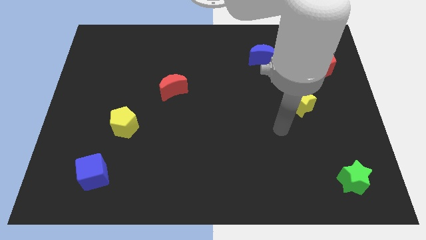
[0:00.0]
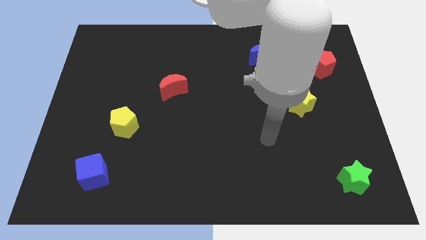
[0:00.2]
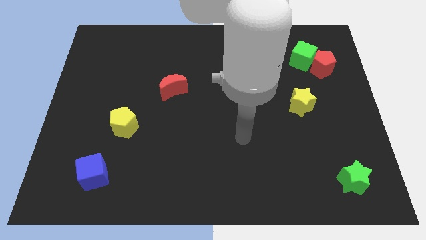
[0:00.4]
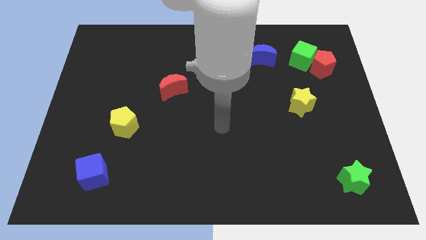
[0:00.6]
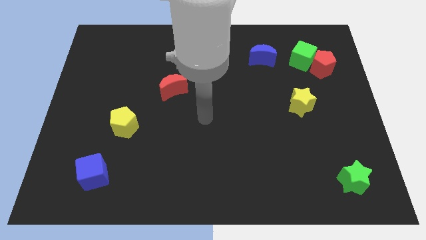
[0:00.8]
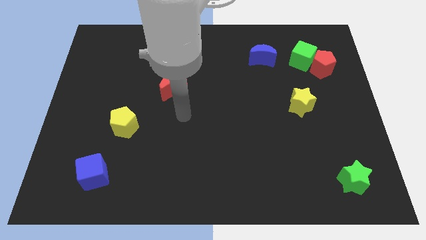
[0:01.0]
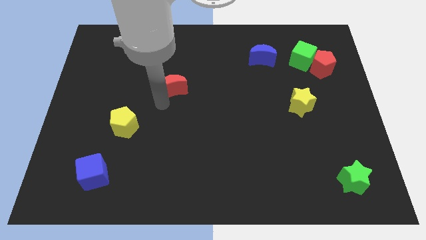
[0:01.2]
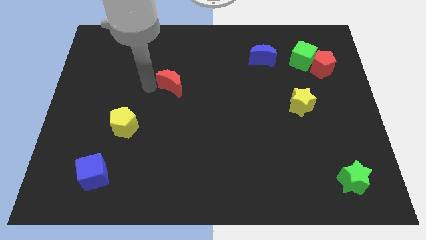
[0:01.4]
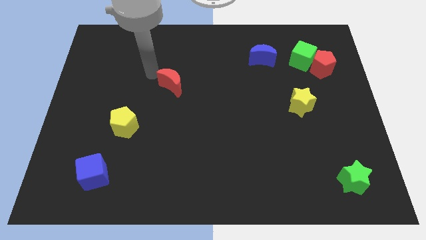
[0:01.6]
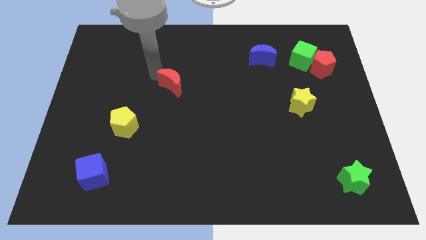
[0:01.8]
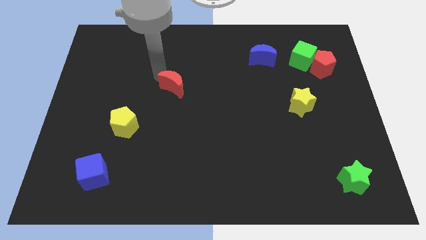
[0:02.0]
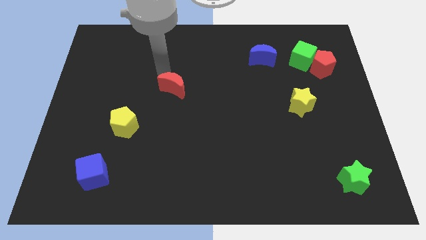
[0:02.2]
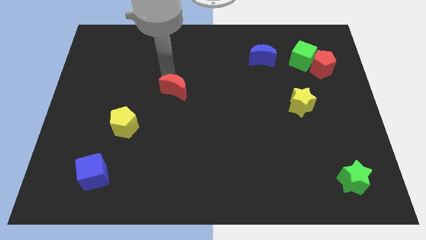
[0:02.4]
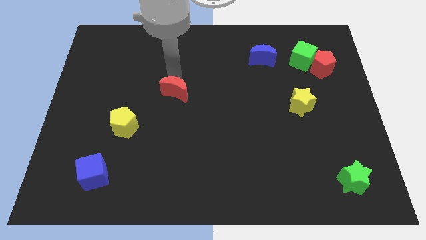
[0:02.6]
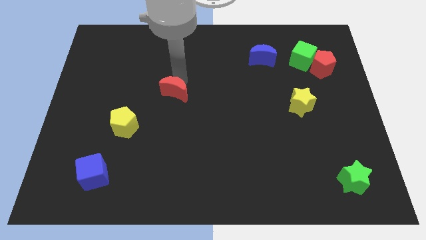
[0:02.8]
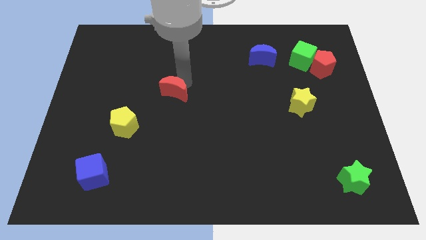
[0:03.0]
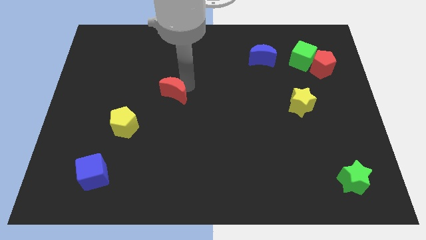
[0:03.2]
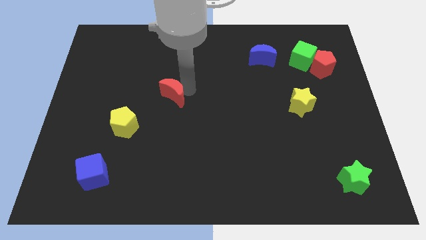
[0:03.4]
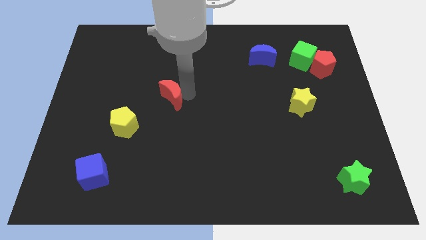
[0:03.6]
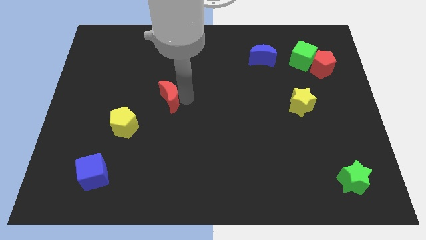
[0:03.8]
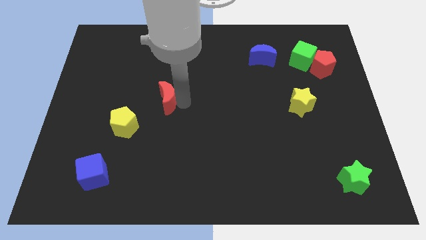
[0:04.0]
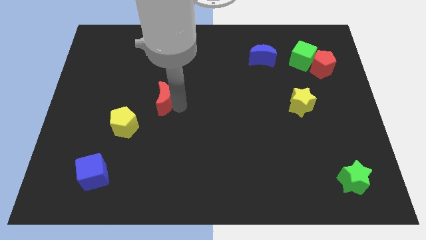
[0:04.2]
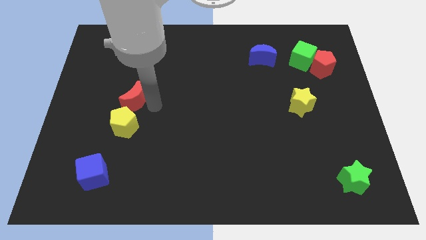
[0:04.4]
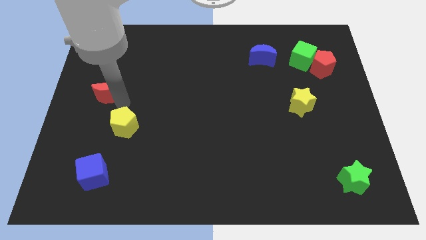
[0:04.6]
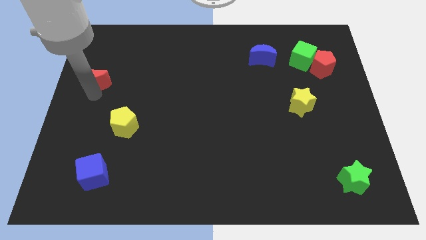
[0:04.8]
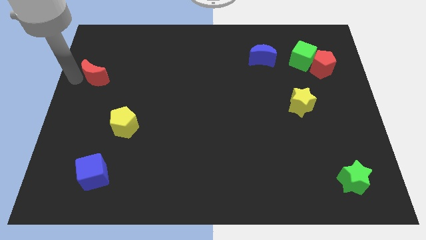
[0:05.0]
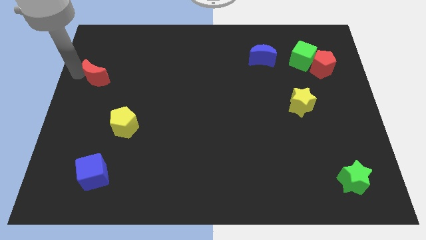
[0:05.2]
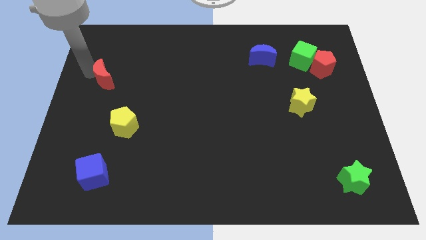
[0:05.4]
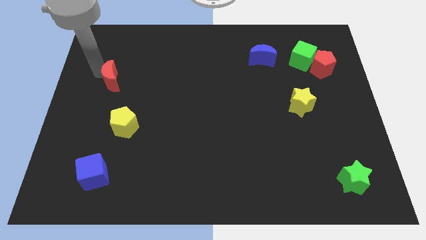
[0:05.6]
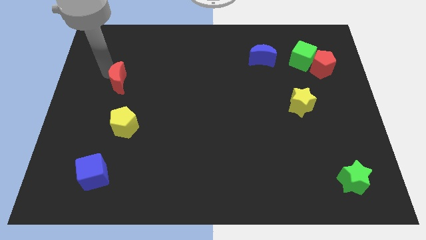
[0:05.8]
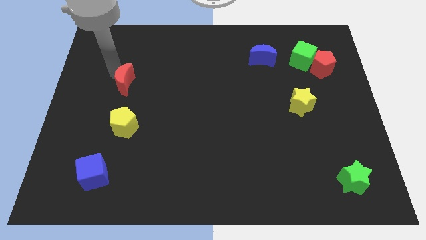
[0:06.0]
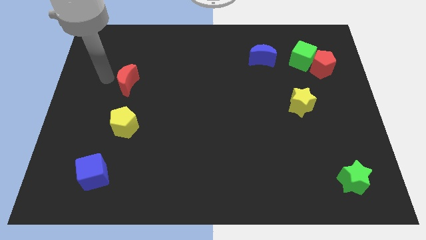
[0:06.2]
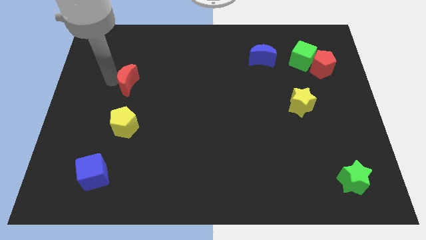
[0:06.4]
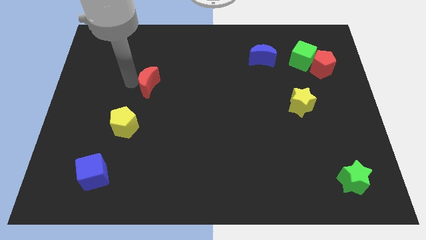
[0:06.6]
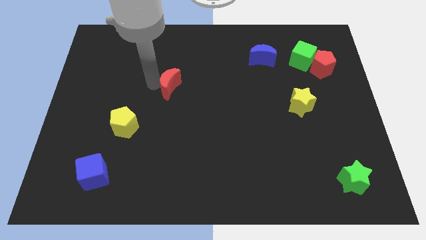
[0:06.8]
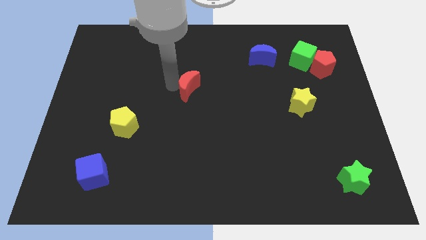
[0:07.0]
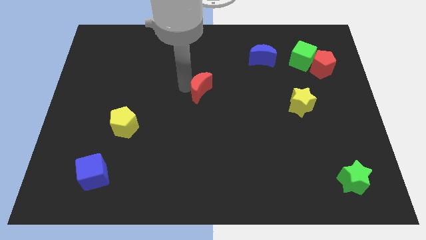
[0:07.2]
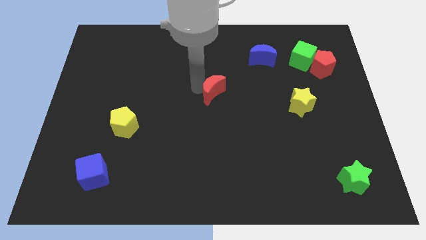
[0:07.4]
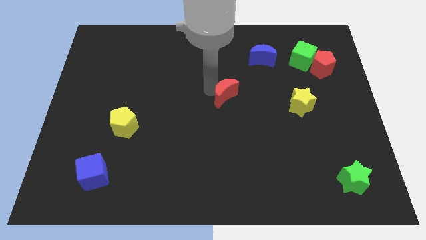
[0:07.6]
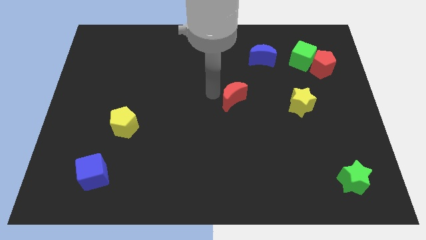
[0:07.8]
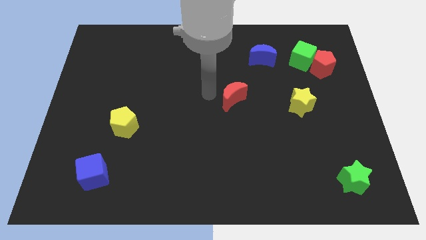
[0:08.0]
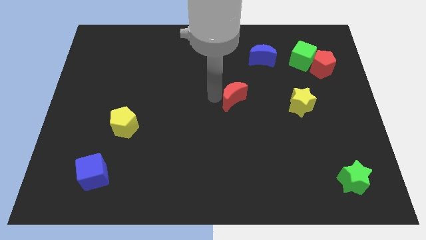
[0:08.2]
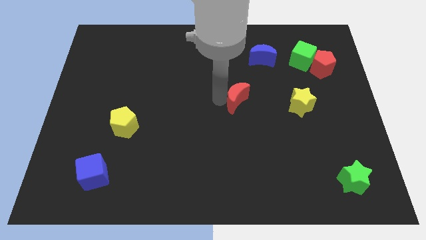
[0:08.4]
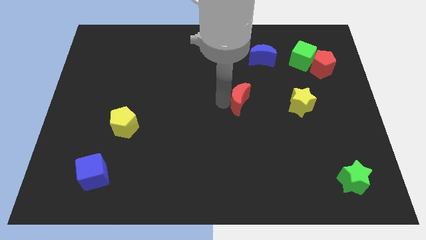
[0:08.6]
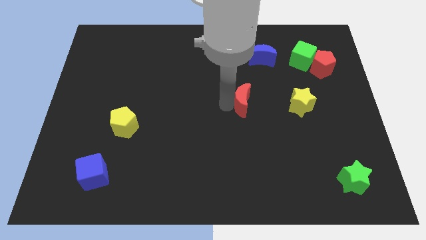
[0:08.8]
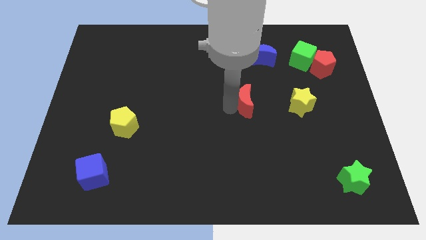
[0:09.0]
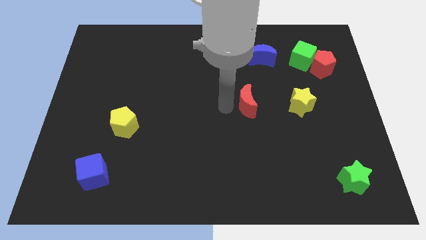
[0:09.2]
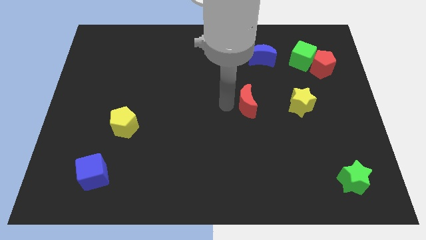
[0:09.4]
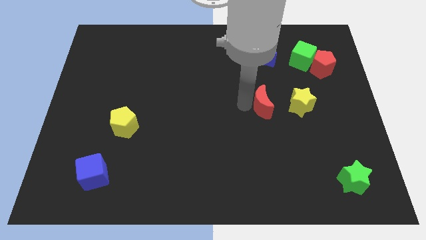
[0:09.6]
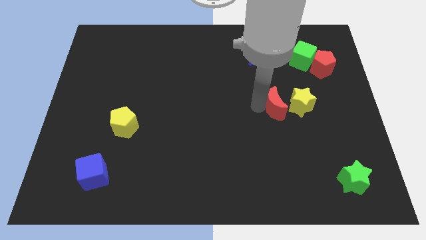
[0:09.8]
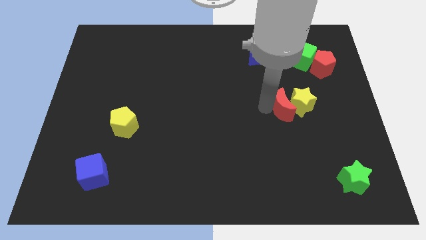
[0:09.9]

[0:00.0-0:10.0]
move the red moon next to the yellow star

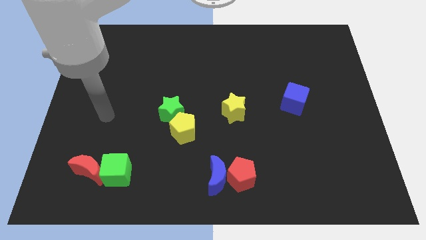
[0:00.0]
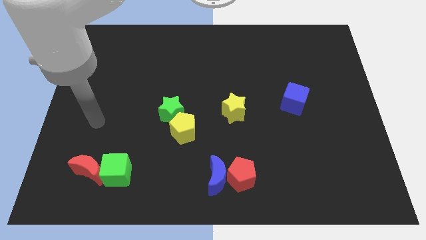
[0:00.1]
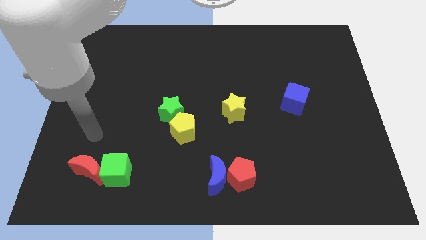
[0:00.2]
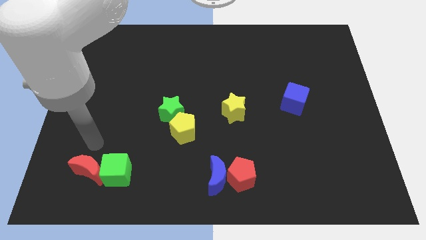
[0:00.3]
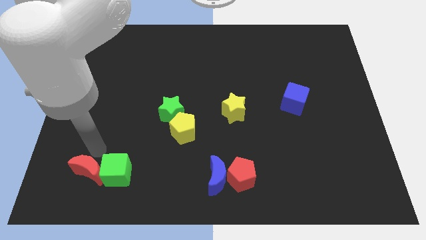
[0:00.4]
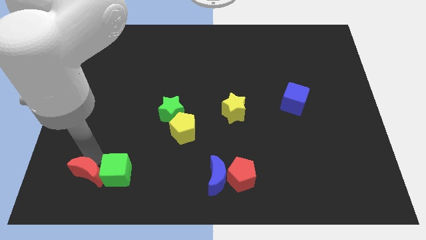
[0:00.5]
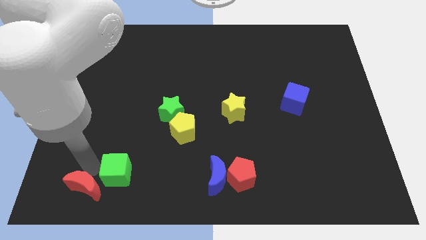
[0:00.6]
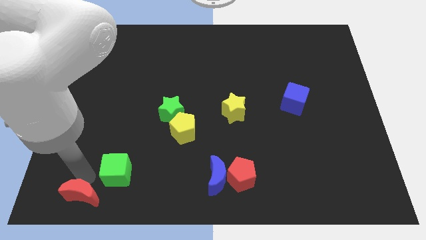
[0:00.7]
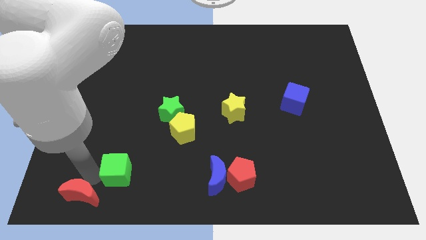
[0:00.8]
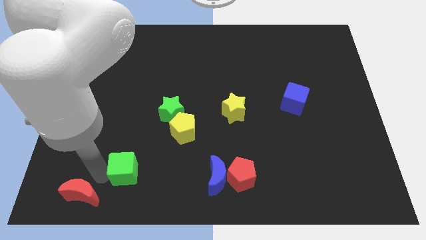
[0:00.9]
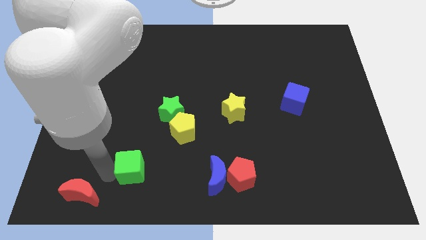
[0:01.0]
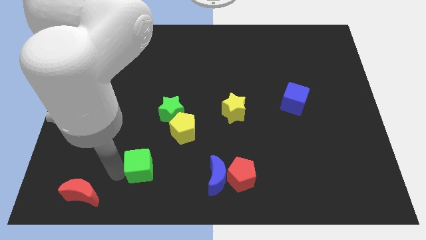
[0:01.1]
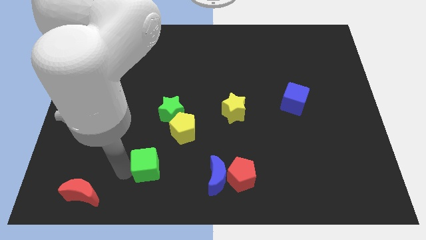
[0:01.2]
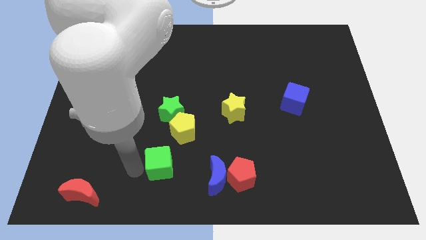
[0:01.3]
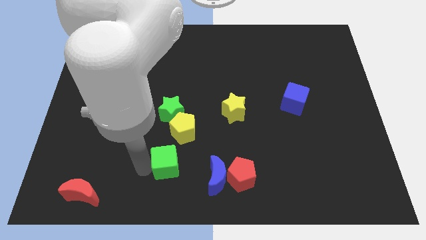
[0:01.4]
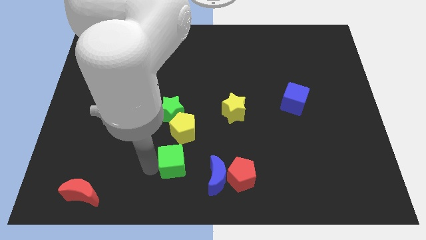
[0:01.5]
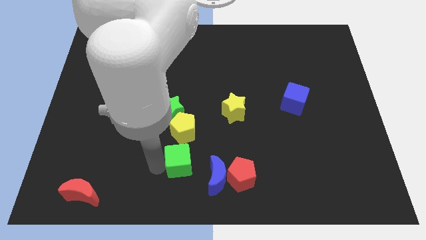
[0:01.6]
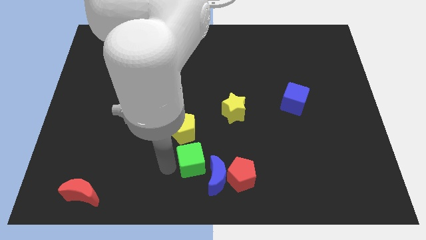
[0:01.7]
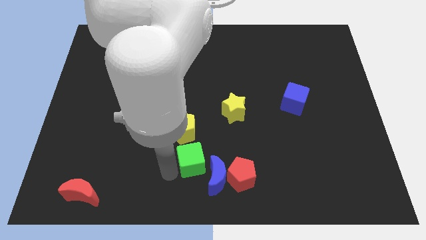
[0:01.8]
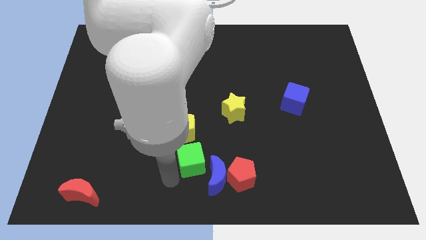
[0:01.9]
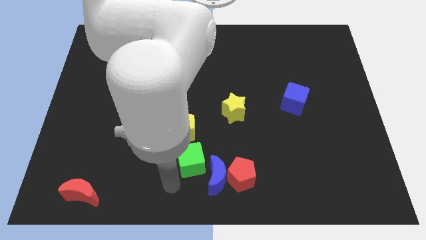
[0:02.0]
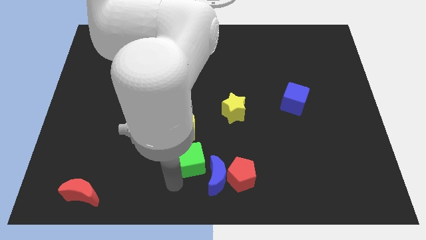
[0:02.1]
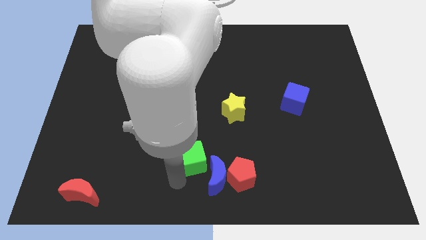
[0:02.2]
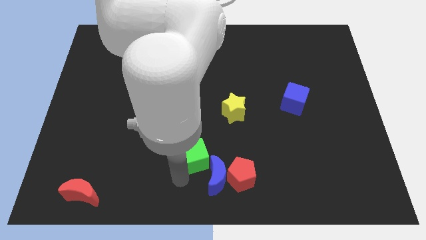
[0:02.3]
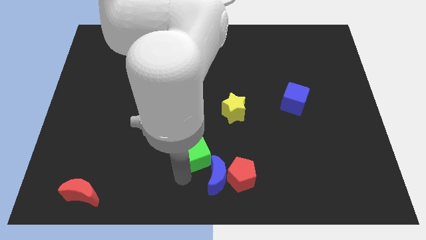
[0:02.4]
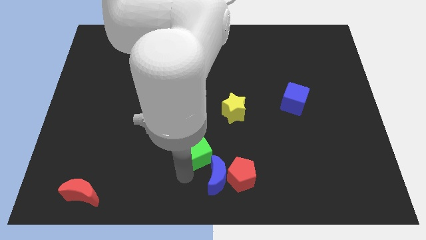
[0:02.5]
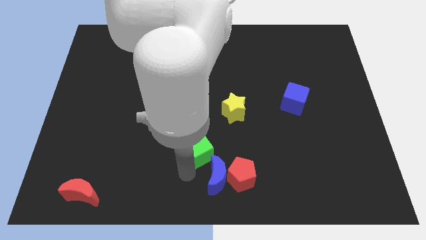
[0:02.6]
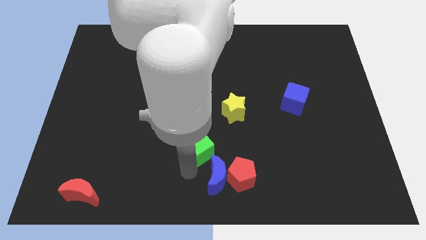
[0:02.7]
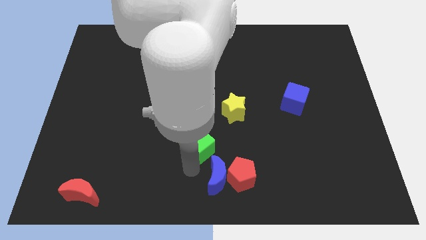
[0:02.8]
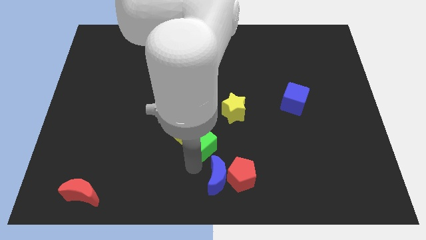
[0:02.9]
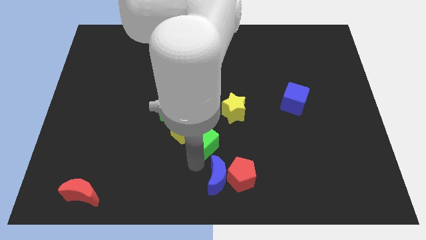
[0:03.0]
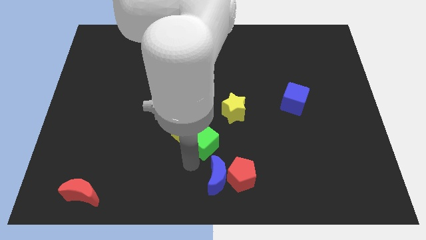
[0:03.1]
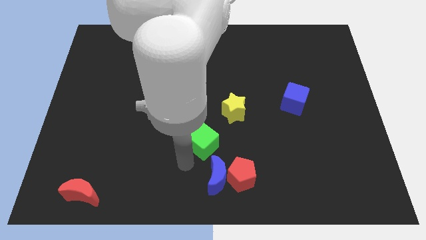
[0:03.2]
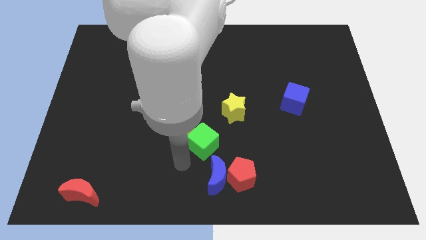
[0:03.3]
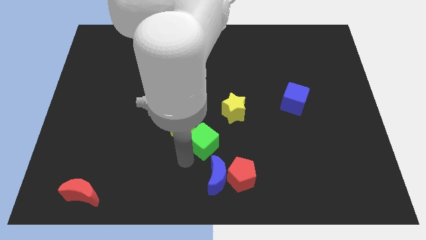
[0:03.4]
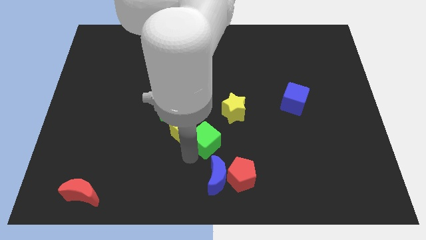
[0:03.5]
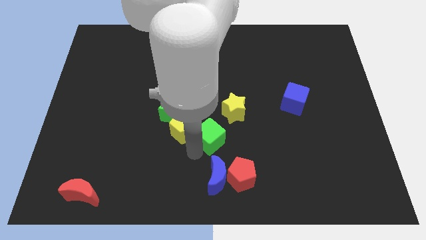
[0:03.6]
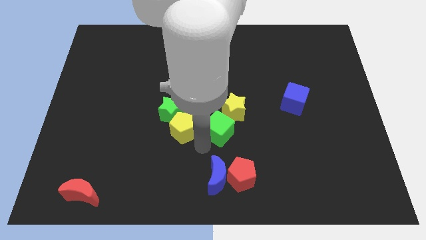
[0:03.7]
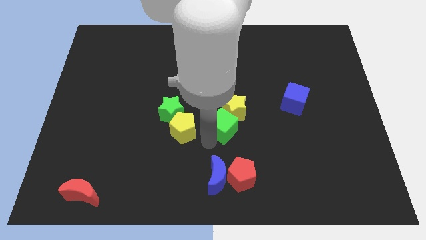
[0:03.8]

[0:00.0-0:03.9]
move the green cube to the yellow star
